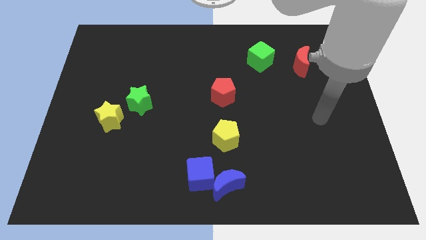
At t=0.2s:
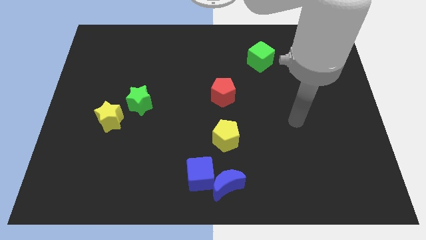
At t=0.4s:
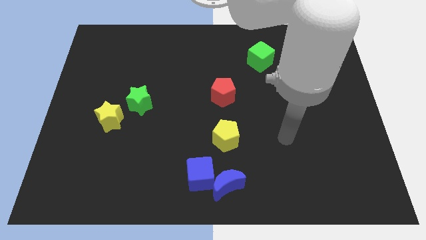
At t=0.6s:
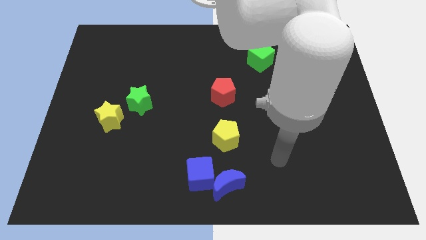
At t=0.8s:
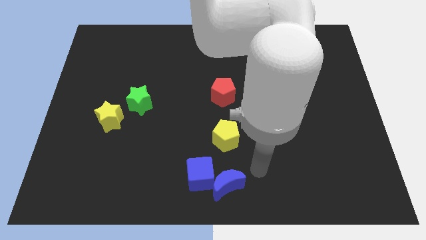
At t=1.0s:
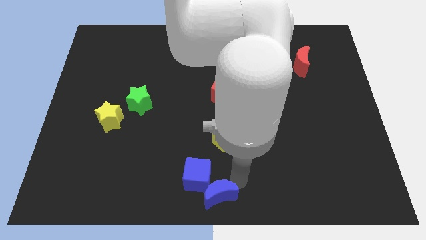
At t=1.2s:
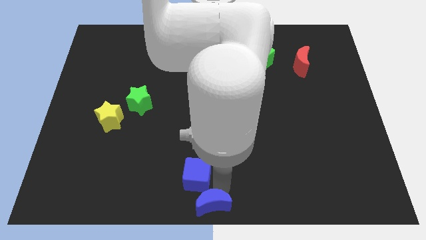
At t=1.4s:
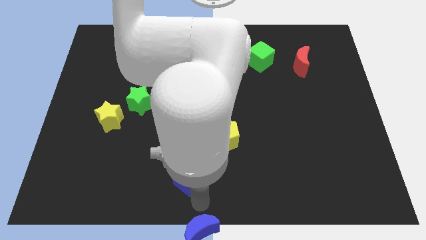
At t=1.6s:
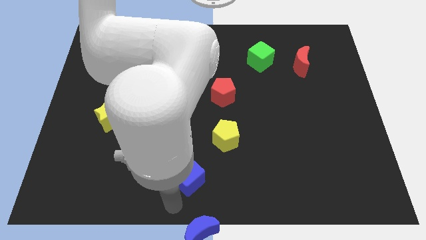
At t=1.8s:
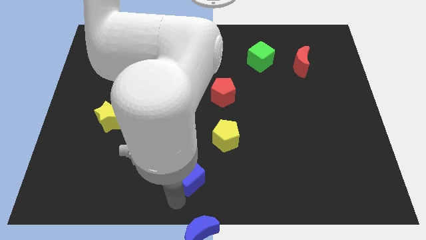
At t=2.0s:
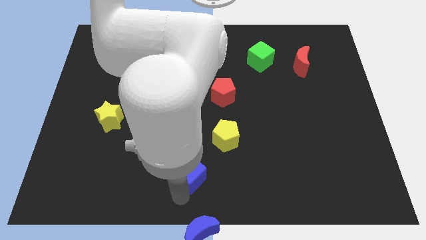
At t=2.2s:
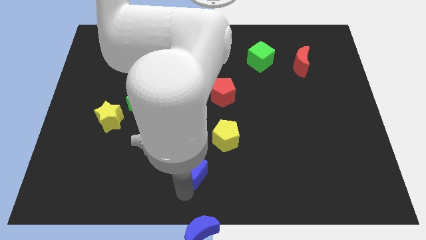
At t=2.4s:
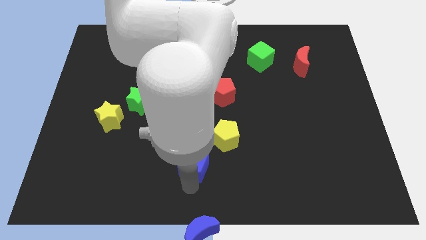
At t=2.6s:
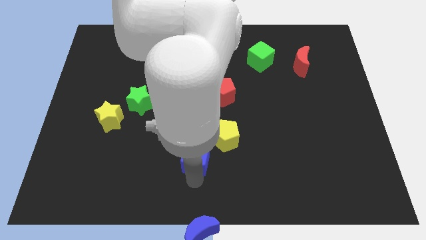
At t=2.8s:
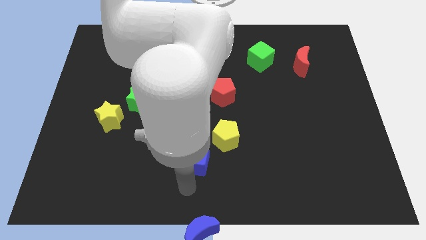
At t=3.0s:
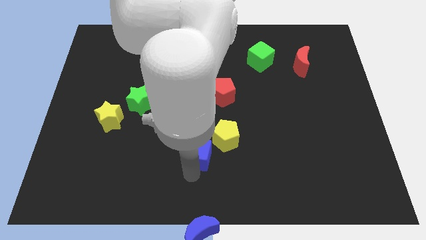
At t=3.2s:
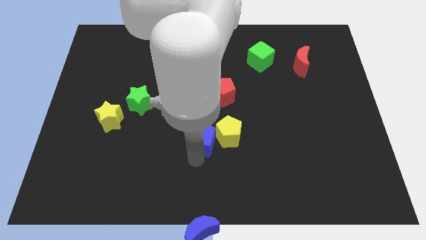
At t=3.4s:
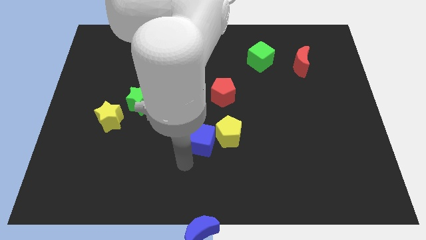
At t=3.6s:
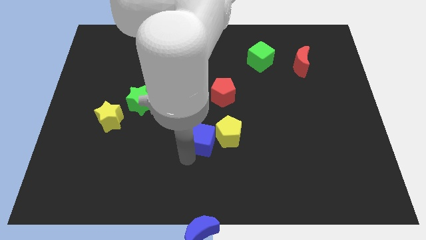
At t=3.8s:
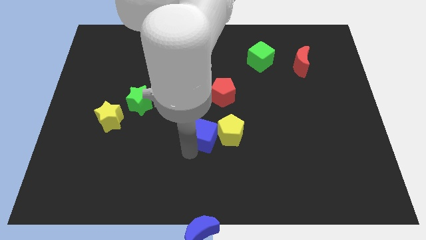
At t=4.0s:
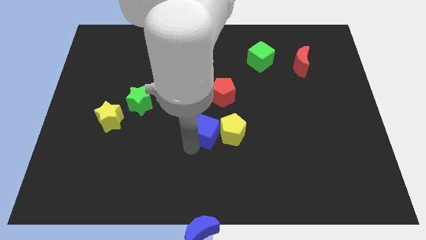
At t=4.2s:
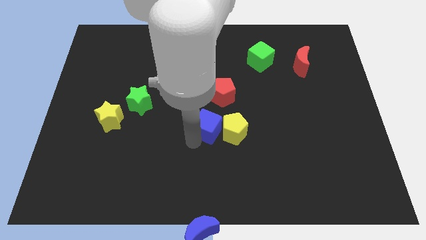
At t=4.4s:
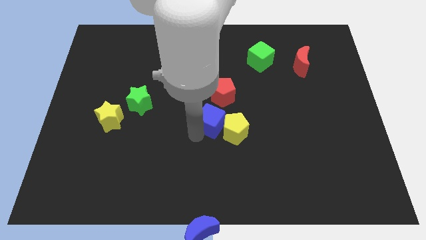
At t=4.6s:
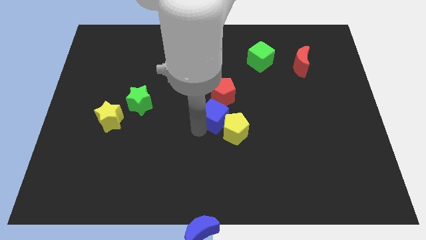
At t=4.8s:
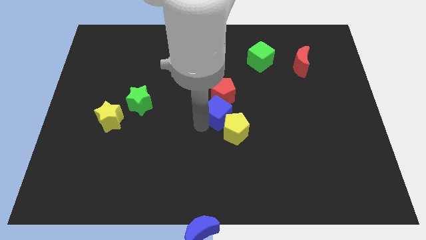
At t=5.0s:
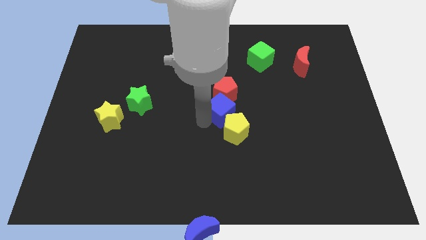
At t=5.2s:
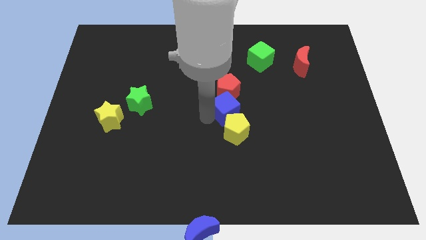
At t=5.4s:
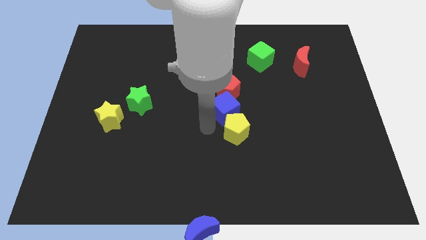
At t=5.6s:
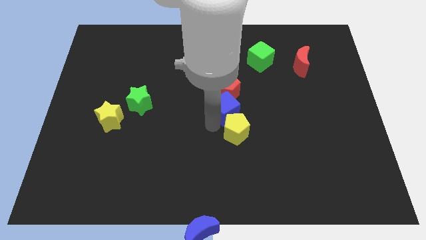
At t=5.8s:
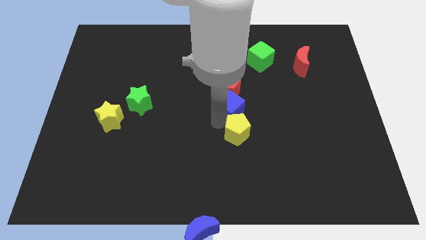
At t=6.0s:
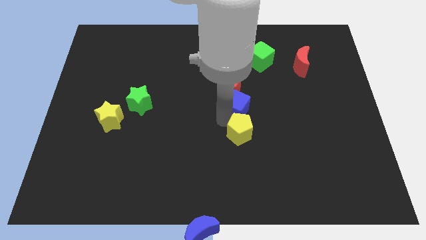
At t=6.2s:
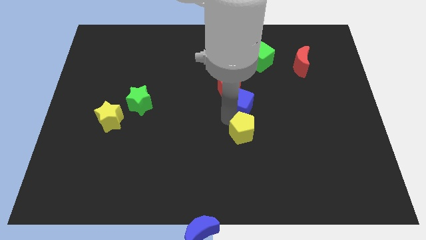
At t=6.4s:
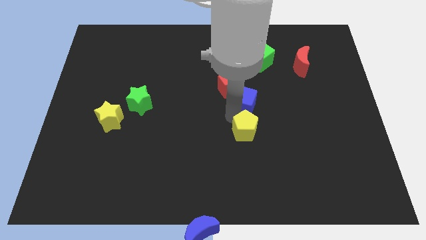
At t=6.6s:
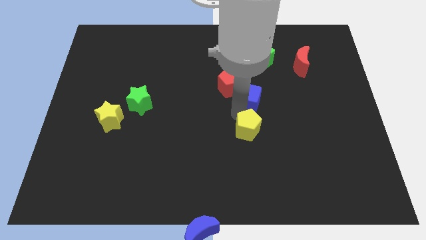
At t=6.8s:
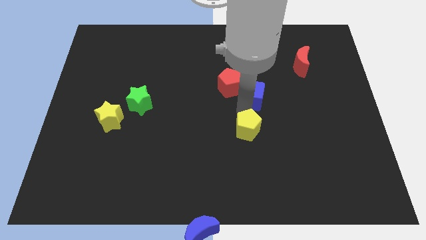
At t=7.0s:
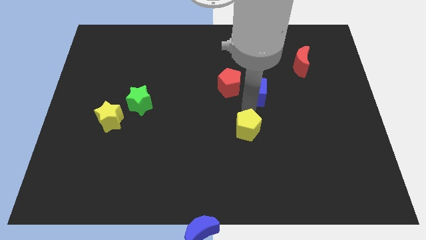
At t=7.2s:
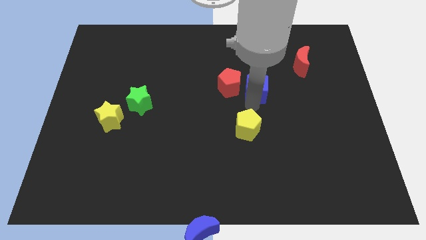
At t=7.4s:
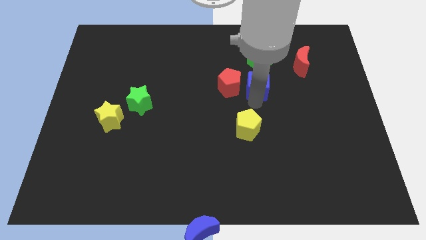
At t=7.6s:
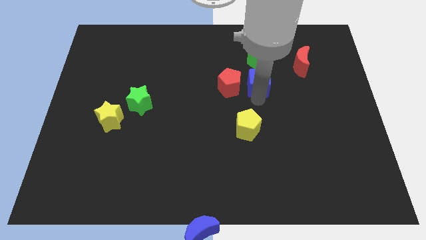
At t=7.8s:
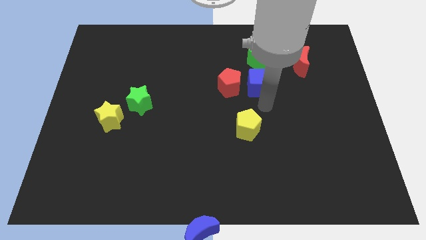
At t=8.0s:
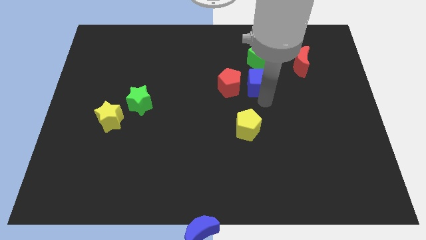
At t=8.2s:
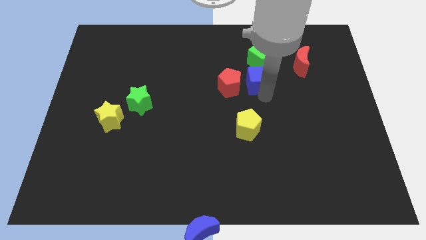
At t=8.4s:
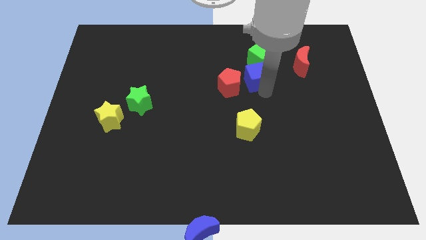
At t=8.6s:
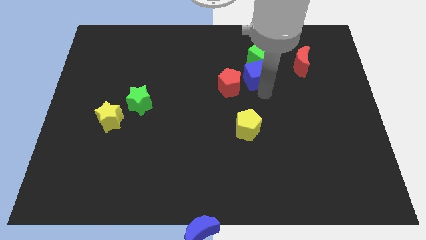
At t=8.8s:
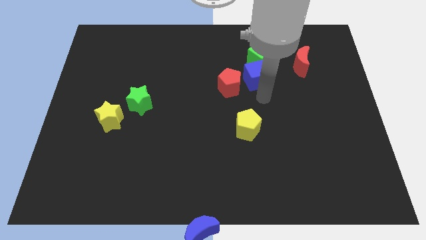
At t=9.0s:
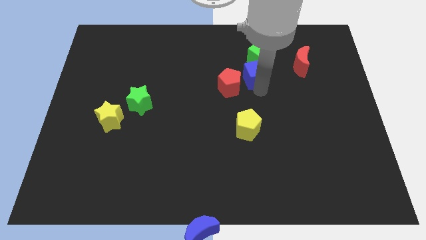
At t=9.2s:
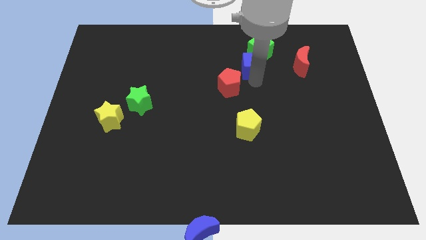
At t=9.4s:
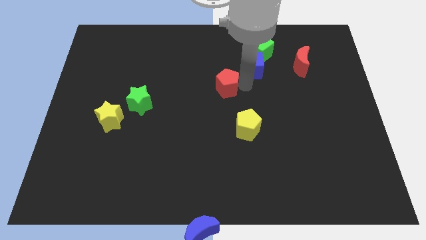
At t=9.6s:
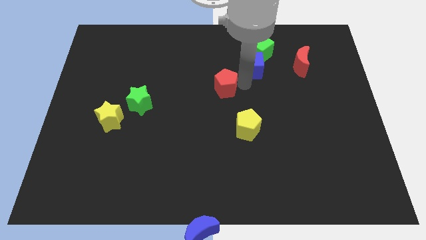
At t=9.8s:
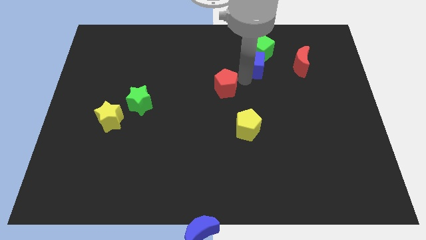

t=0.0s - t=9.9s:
push the blue cube next to the green cube

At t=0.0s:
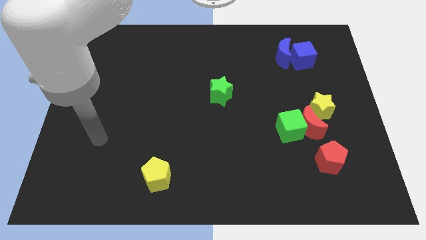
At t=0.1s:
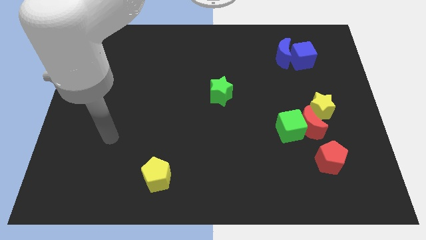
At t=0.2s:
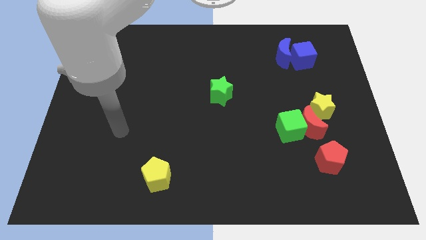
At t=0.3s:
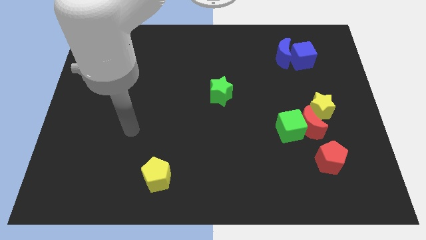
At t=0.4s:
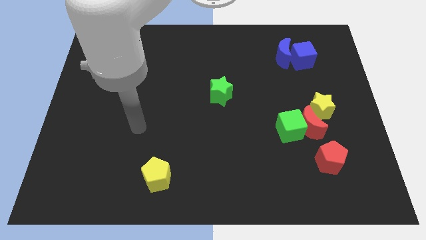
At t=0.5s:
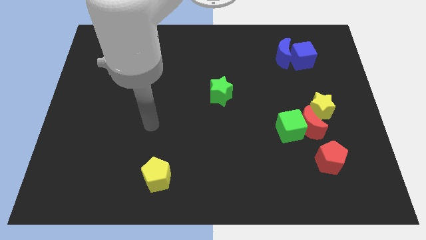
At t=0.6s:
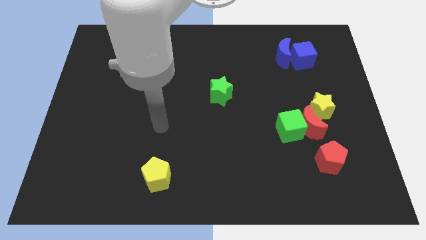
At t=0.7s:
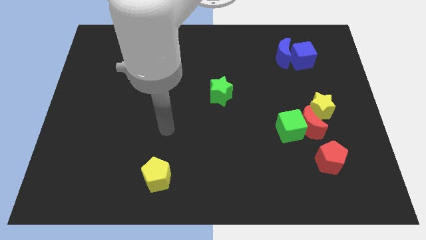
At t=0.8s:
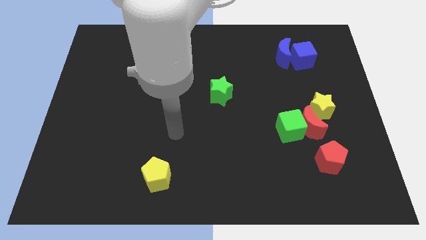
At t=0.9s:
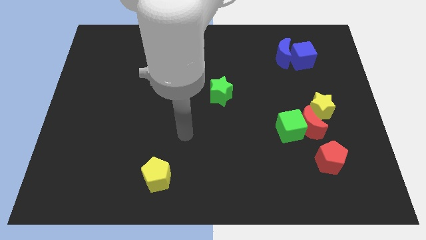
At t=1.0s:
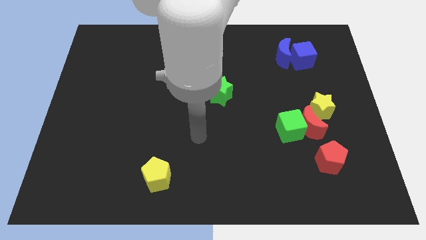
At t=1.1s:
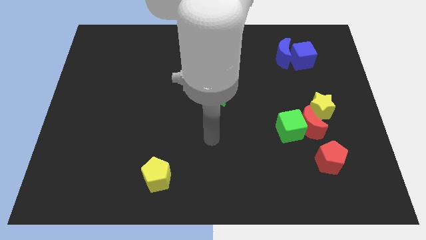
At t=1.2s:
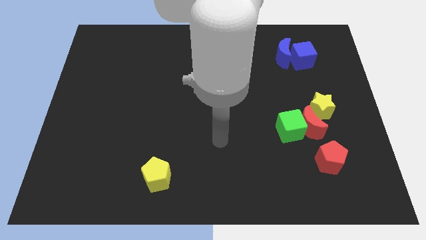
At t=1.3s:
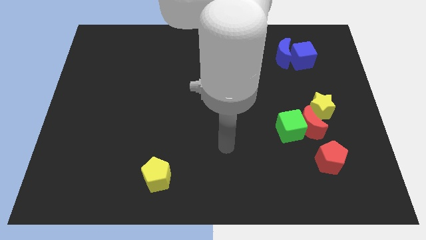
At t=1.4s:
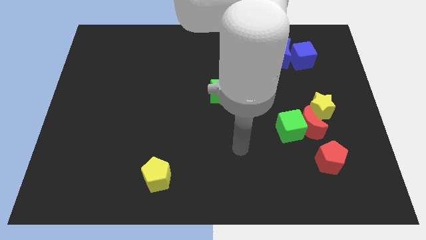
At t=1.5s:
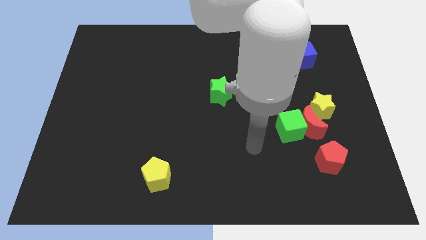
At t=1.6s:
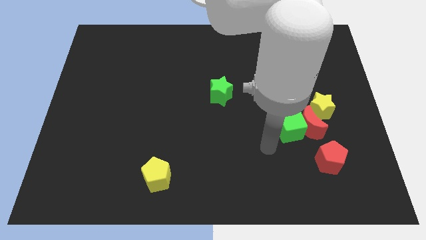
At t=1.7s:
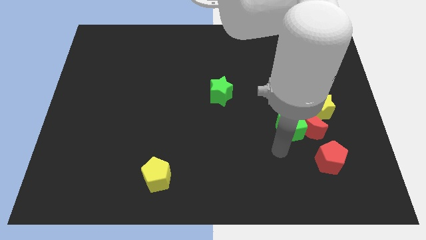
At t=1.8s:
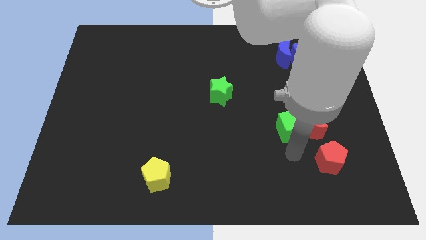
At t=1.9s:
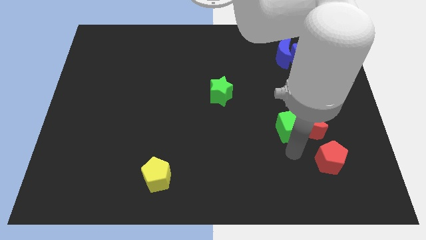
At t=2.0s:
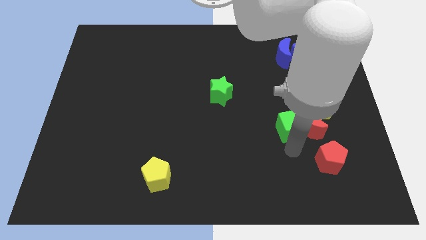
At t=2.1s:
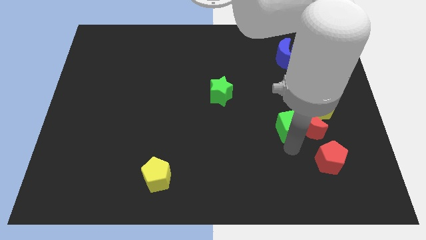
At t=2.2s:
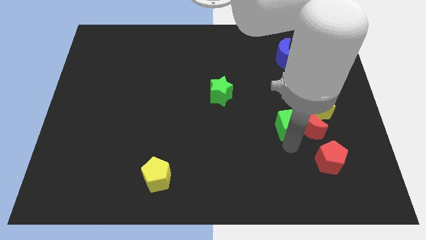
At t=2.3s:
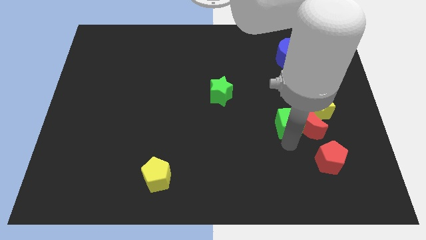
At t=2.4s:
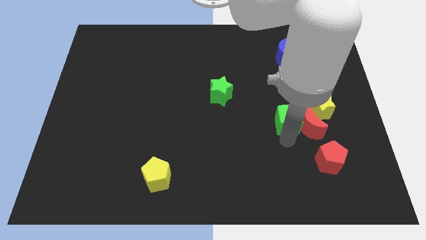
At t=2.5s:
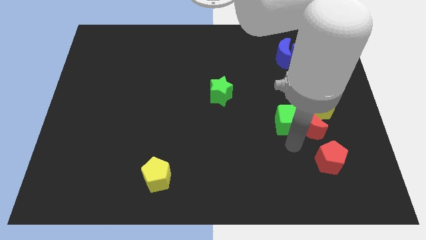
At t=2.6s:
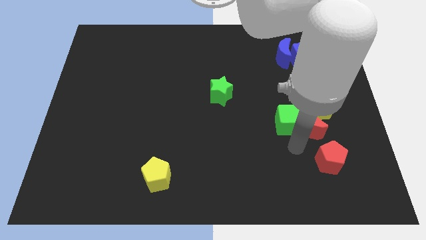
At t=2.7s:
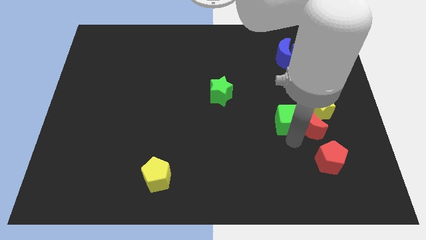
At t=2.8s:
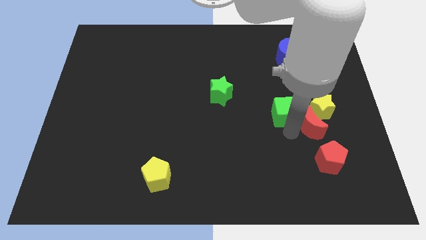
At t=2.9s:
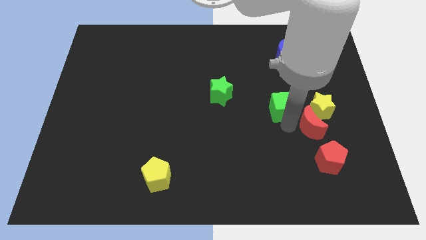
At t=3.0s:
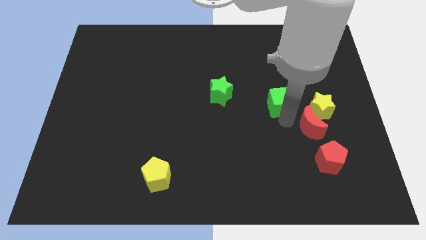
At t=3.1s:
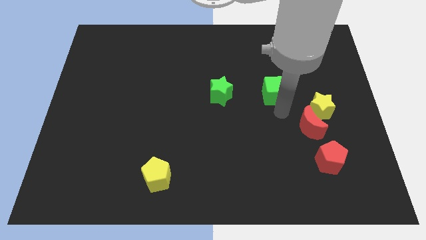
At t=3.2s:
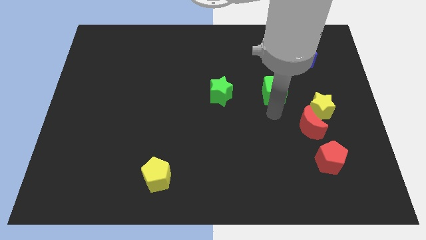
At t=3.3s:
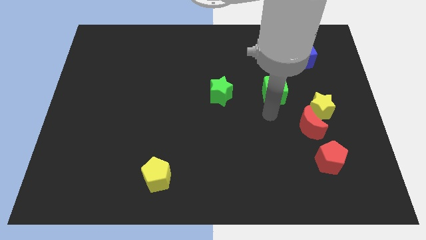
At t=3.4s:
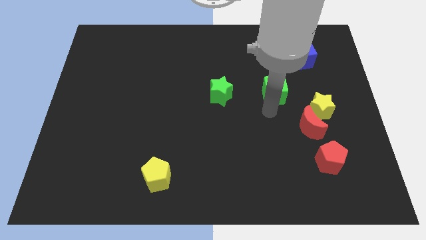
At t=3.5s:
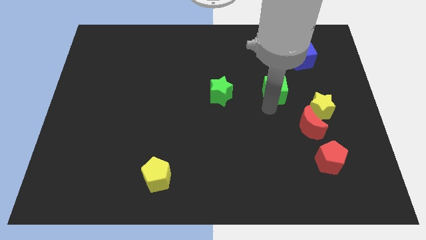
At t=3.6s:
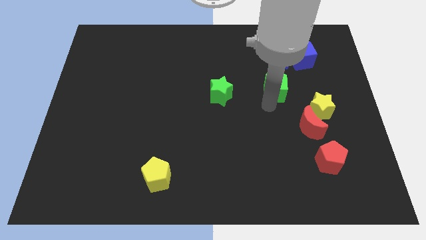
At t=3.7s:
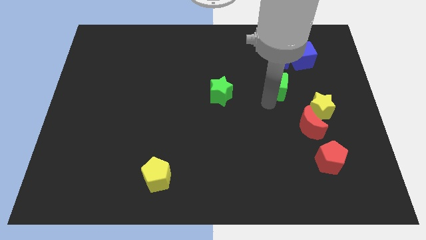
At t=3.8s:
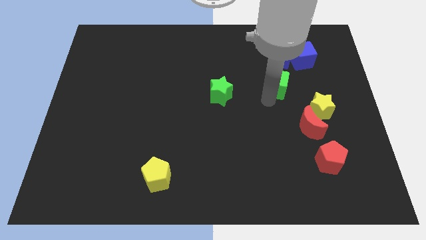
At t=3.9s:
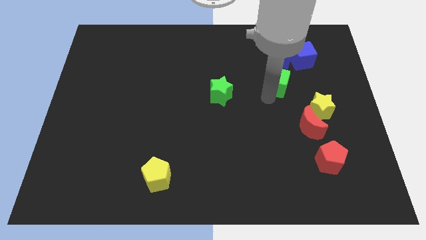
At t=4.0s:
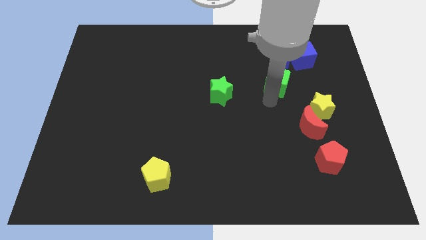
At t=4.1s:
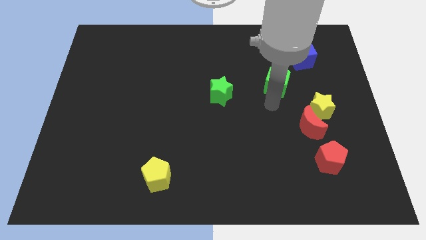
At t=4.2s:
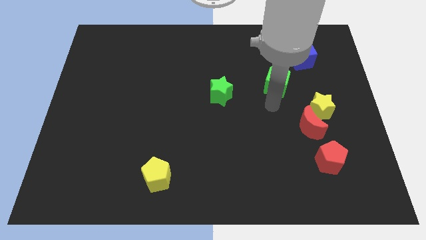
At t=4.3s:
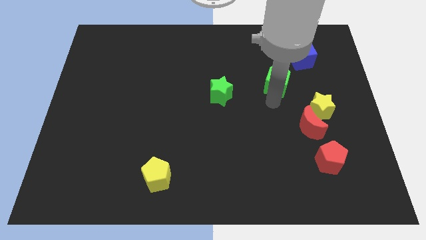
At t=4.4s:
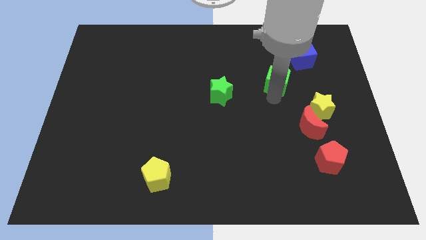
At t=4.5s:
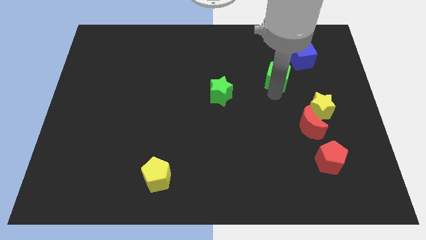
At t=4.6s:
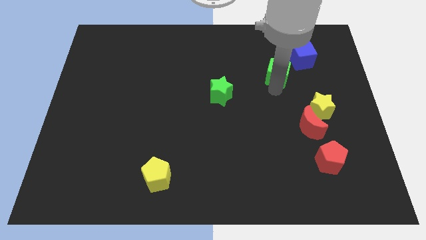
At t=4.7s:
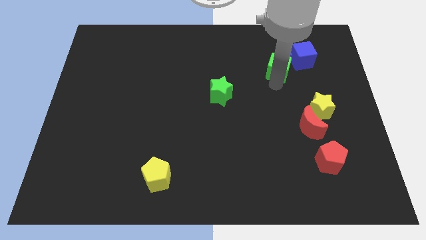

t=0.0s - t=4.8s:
move the green cube towards the blue moon
